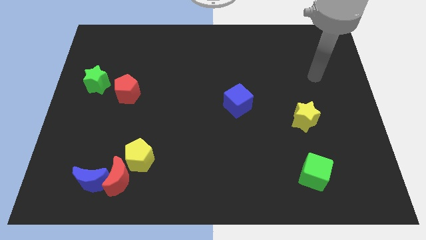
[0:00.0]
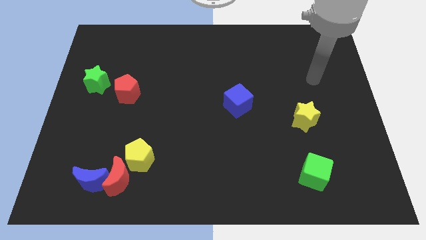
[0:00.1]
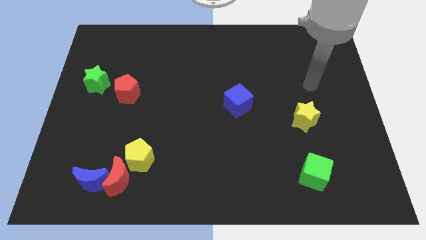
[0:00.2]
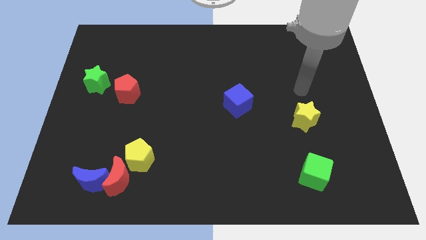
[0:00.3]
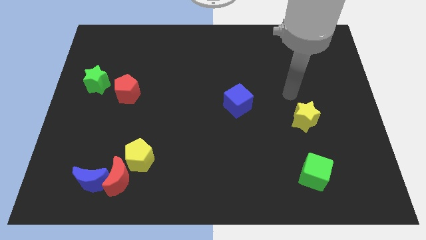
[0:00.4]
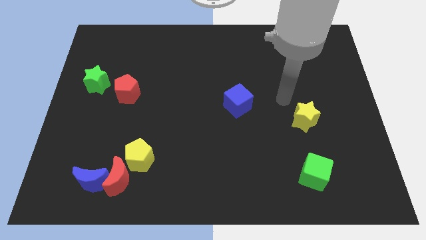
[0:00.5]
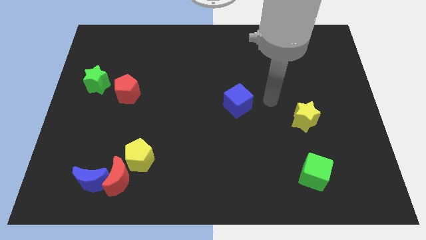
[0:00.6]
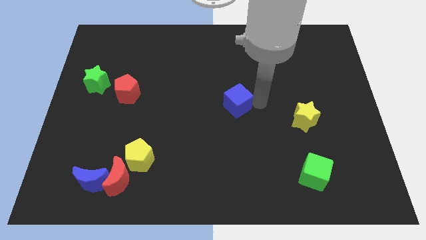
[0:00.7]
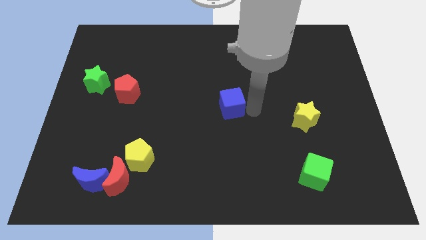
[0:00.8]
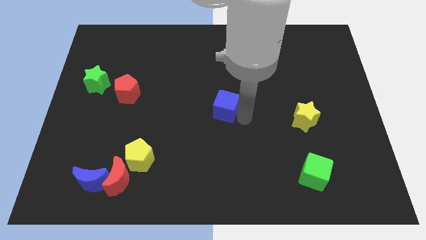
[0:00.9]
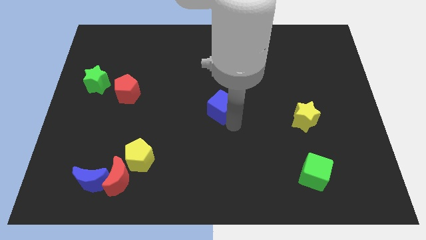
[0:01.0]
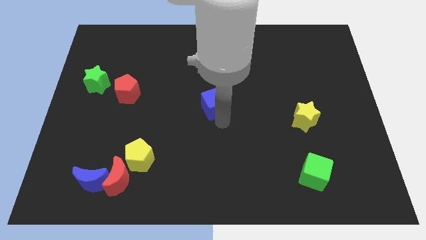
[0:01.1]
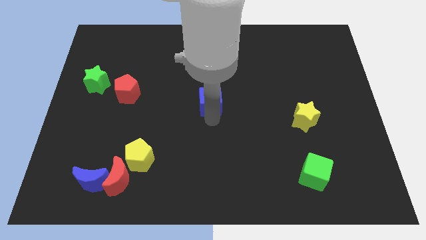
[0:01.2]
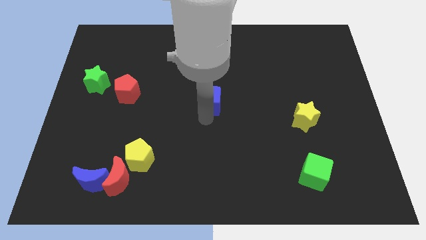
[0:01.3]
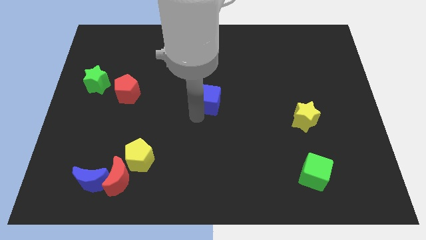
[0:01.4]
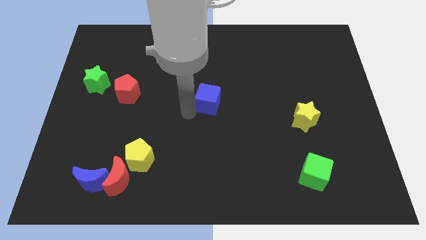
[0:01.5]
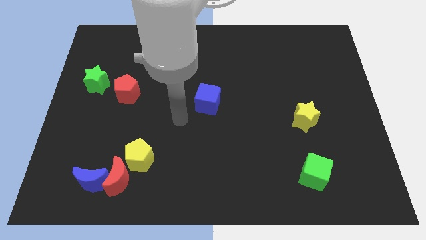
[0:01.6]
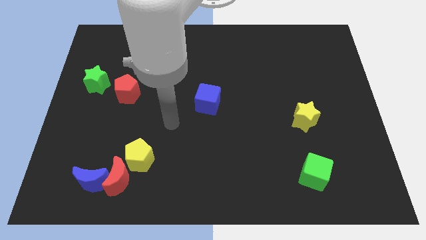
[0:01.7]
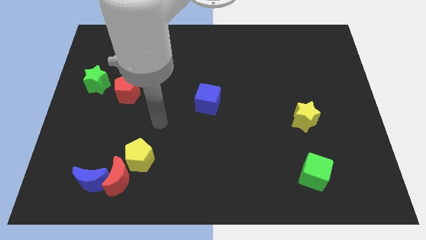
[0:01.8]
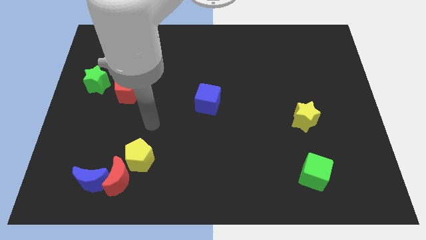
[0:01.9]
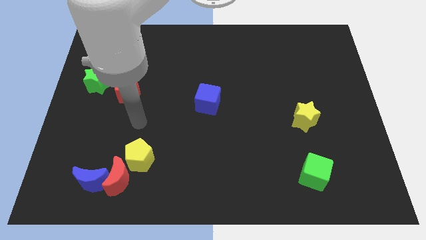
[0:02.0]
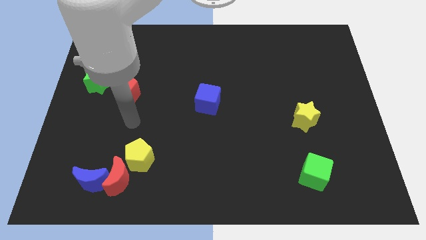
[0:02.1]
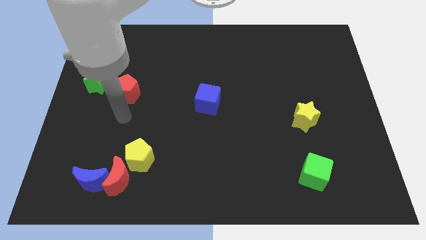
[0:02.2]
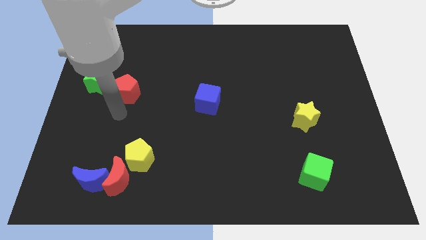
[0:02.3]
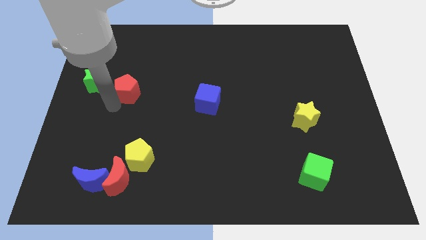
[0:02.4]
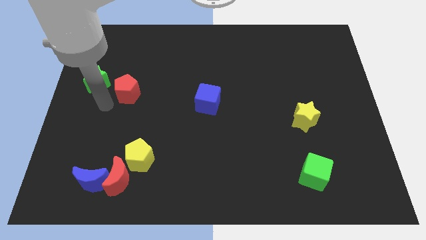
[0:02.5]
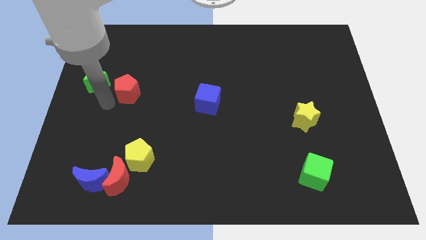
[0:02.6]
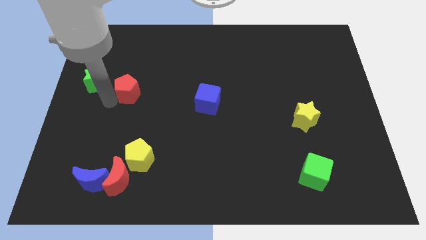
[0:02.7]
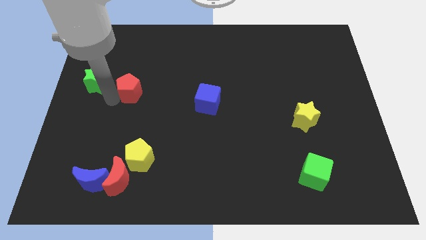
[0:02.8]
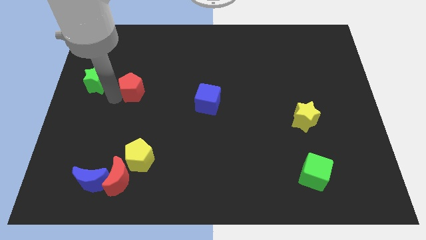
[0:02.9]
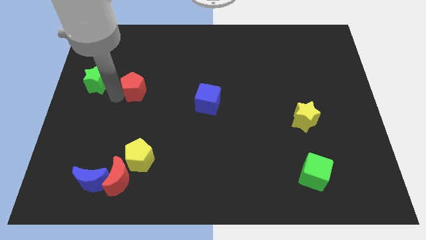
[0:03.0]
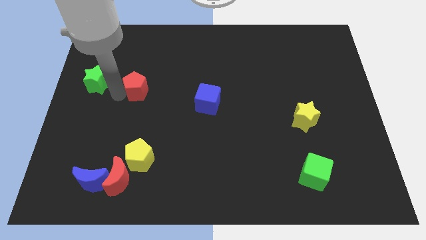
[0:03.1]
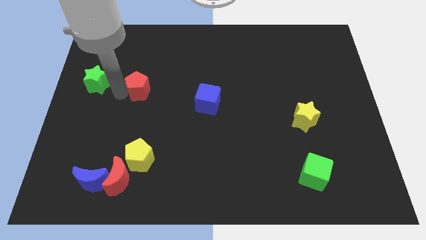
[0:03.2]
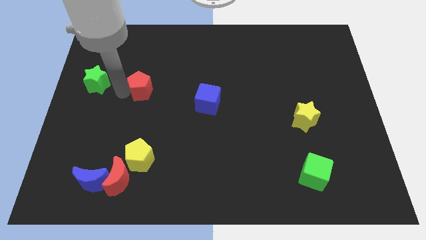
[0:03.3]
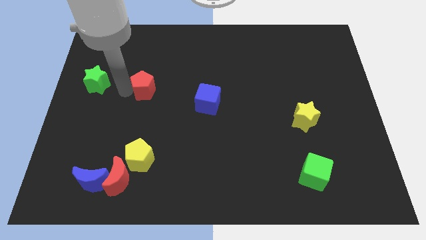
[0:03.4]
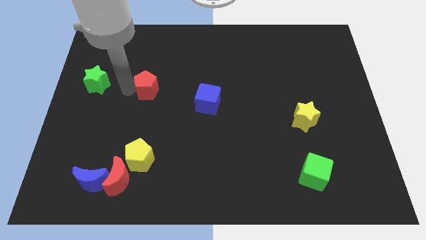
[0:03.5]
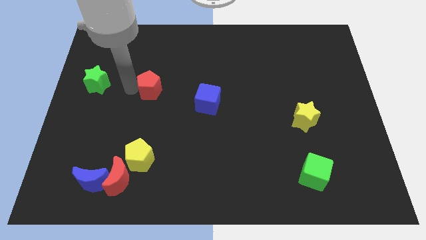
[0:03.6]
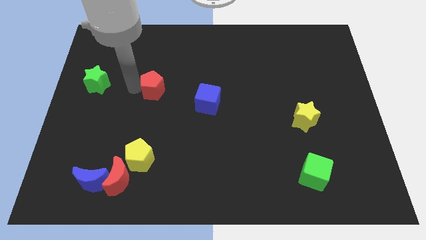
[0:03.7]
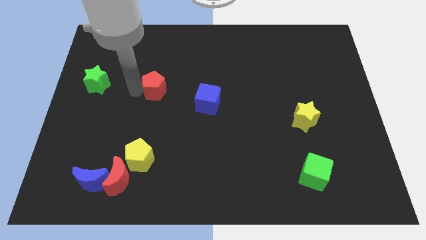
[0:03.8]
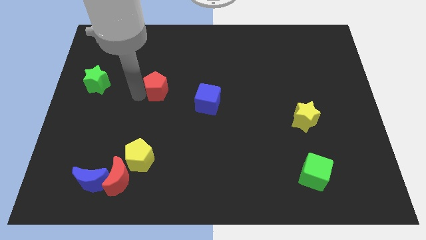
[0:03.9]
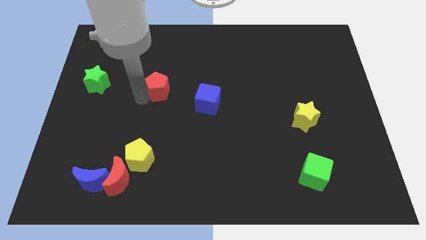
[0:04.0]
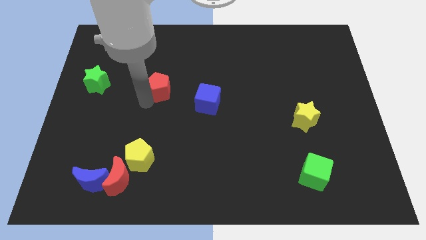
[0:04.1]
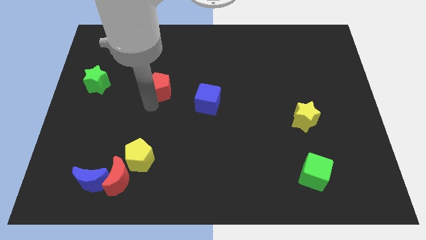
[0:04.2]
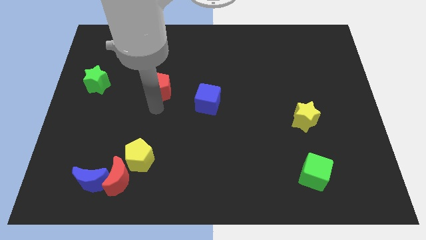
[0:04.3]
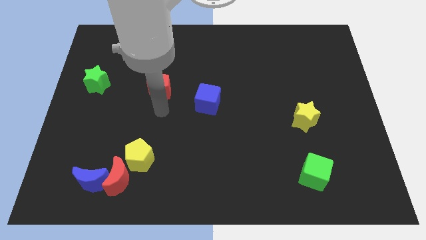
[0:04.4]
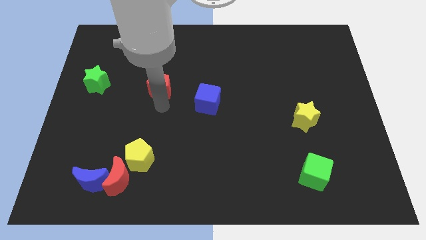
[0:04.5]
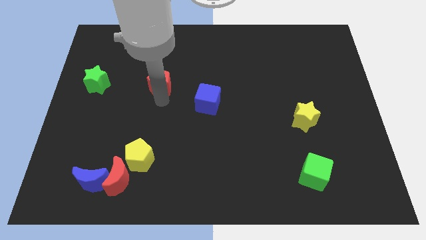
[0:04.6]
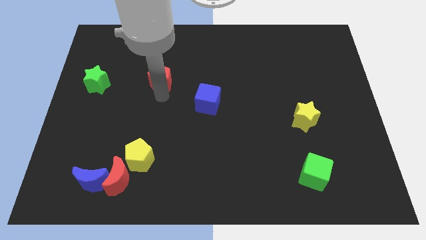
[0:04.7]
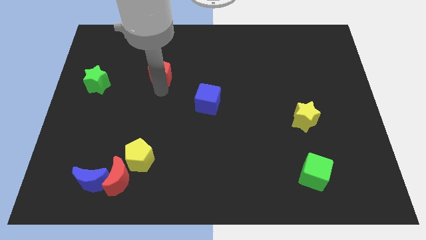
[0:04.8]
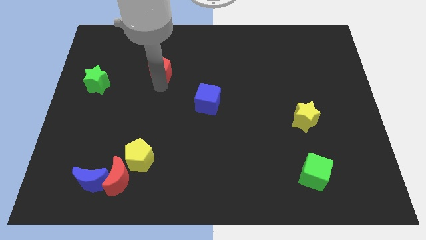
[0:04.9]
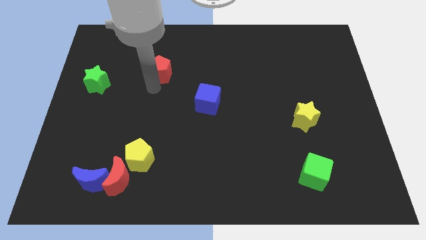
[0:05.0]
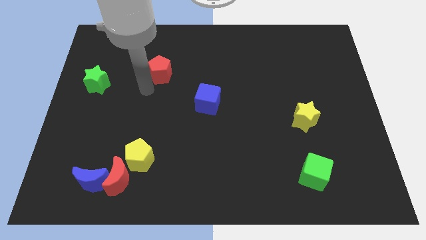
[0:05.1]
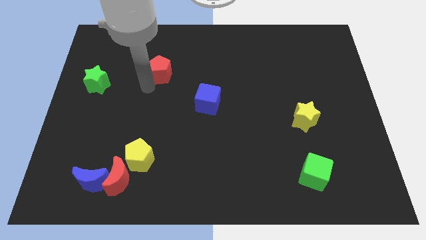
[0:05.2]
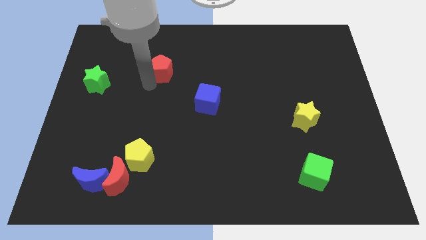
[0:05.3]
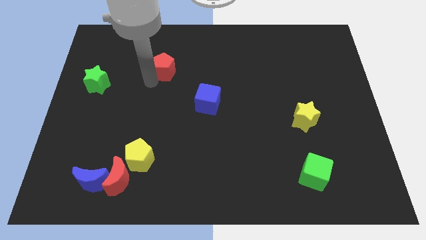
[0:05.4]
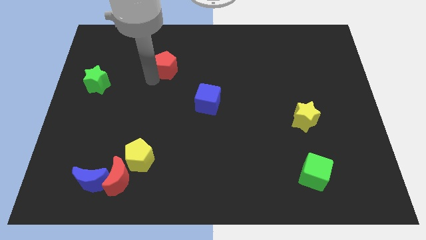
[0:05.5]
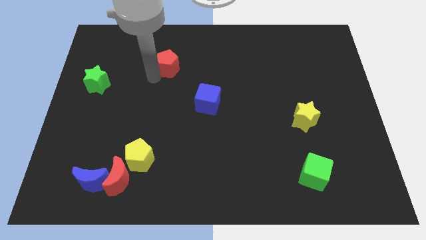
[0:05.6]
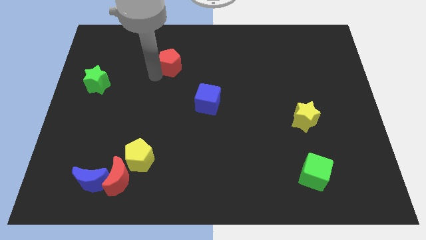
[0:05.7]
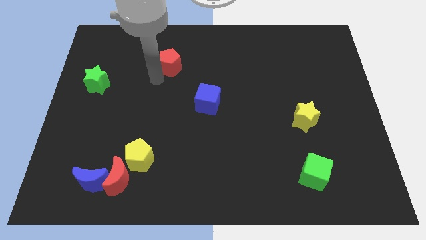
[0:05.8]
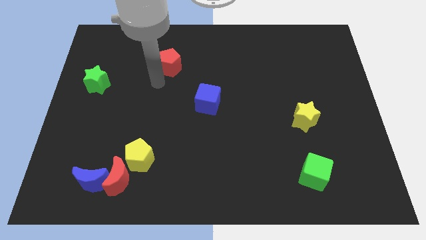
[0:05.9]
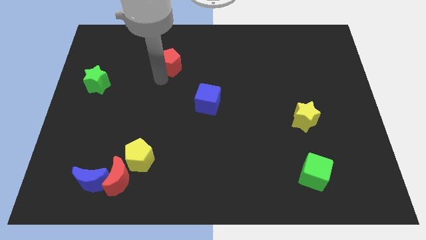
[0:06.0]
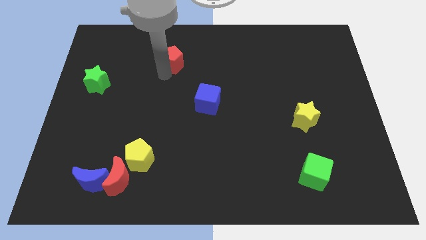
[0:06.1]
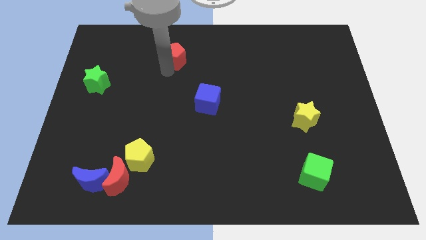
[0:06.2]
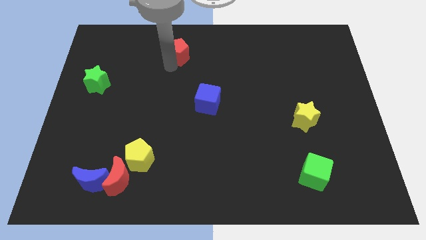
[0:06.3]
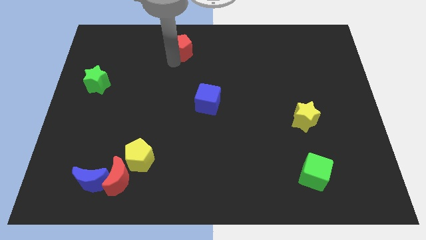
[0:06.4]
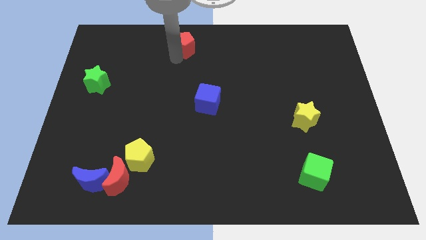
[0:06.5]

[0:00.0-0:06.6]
slide the red pentagon to the towards your base
